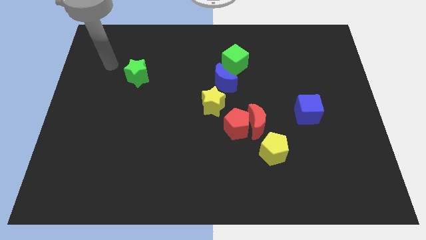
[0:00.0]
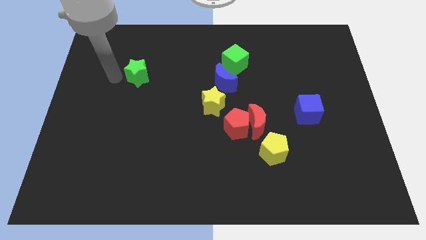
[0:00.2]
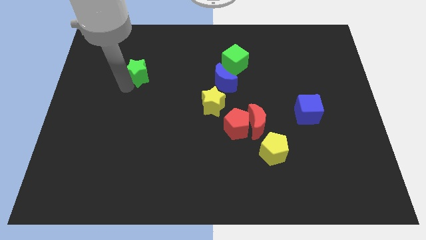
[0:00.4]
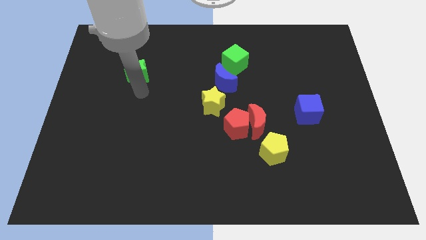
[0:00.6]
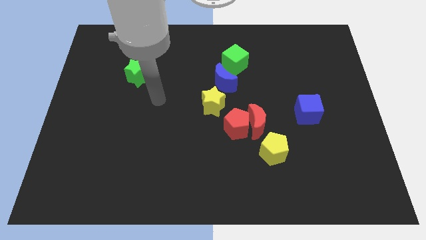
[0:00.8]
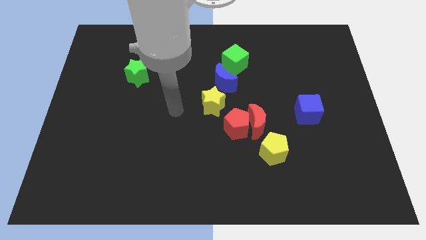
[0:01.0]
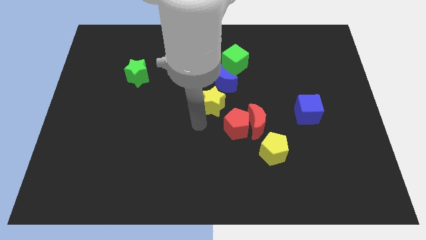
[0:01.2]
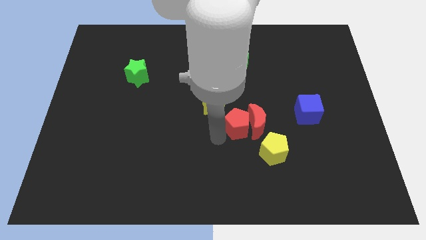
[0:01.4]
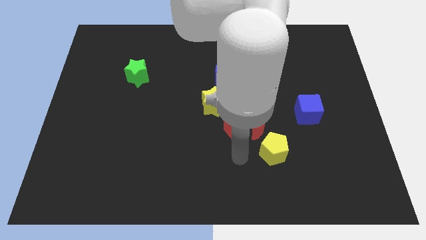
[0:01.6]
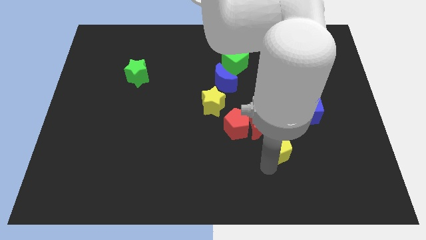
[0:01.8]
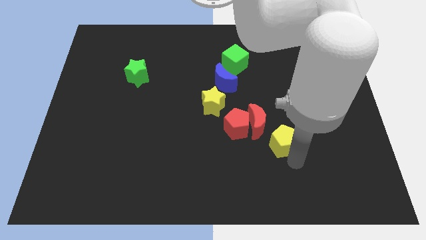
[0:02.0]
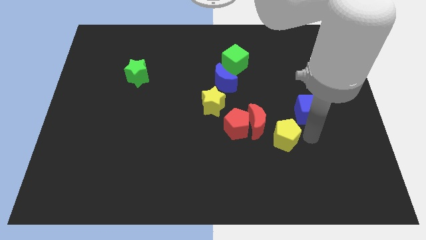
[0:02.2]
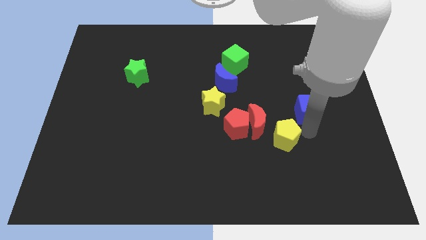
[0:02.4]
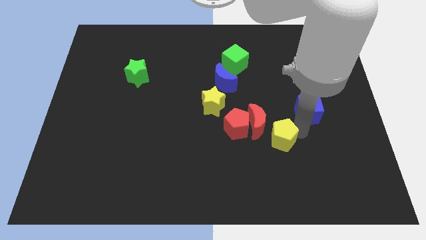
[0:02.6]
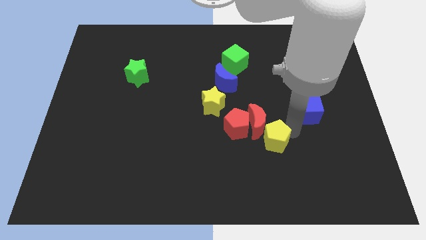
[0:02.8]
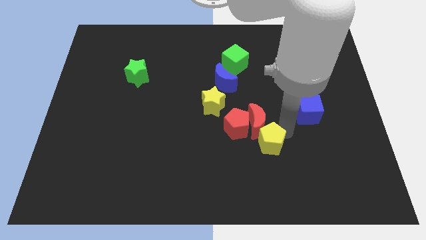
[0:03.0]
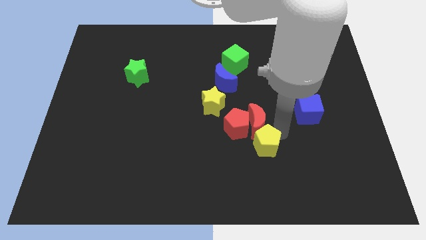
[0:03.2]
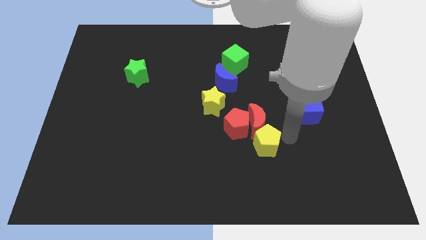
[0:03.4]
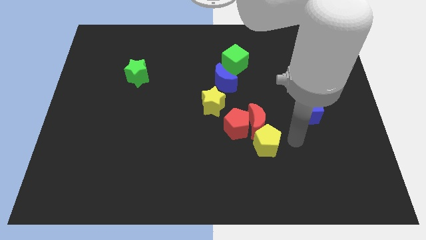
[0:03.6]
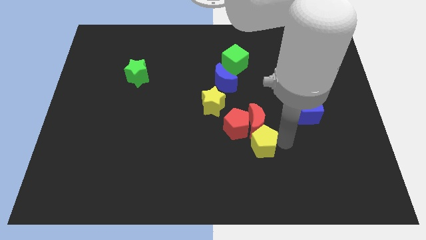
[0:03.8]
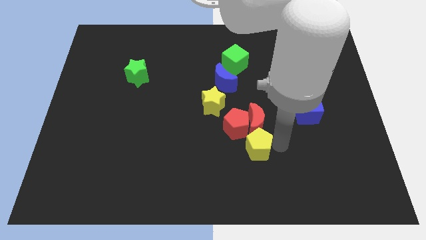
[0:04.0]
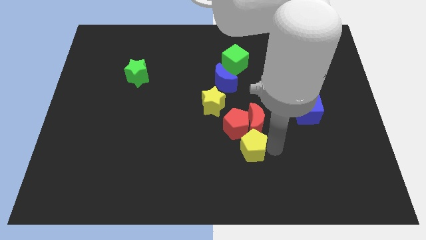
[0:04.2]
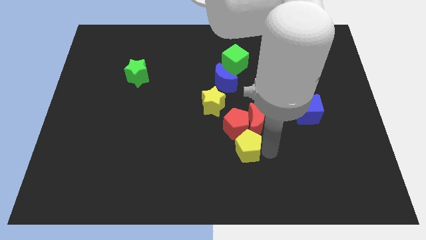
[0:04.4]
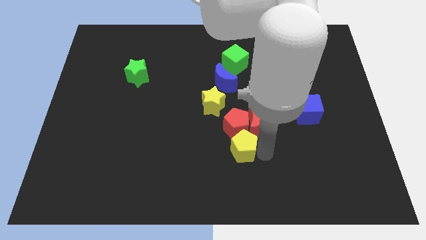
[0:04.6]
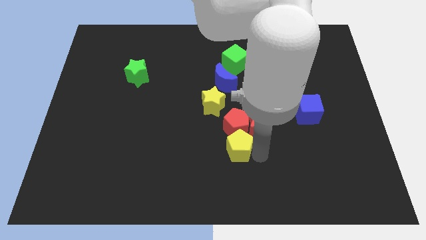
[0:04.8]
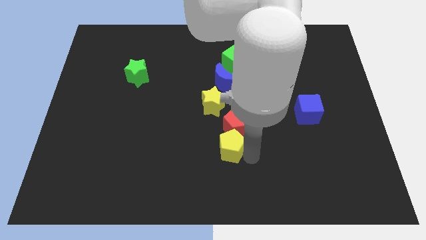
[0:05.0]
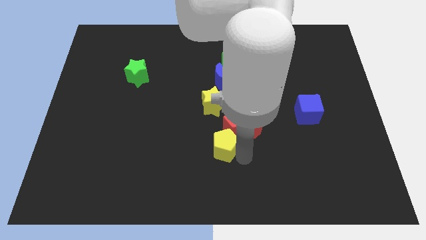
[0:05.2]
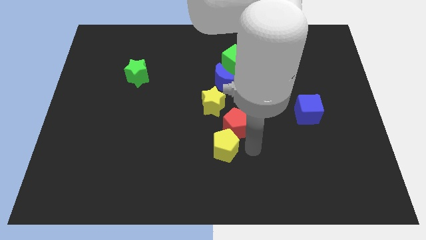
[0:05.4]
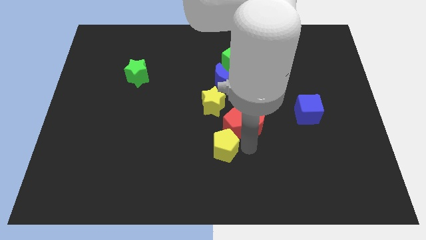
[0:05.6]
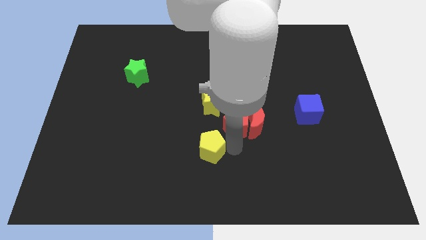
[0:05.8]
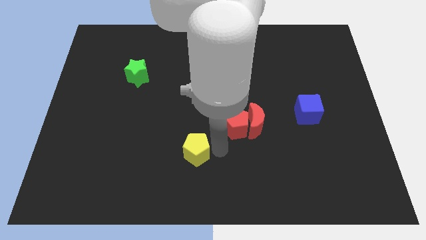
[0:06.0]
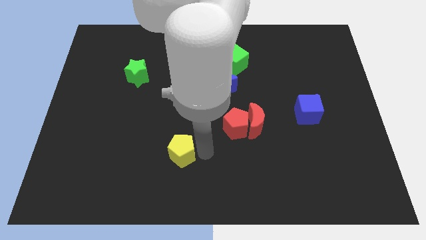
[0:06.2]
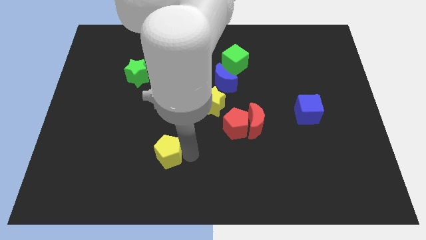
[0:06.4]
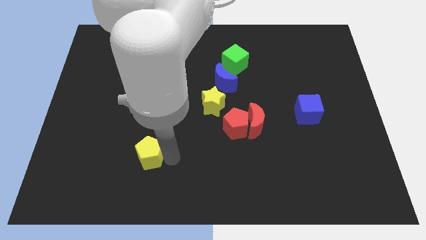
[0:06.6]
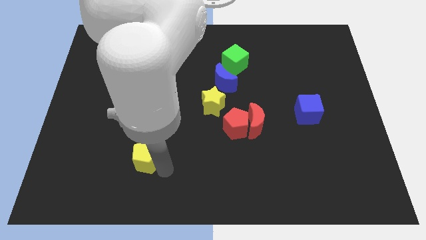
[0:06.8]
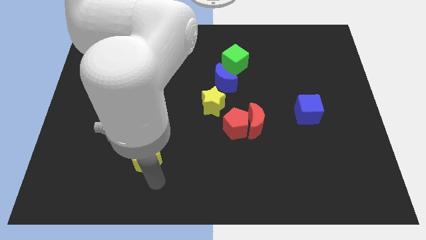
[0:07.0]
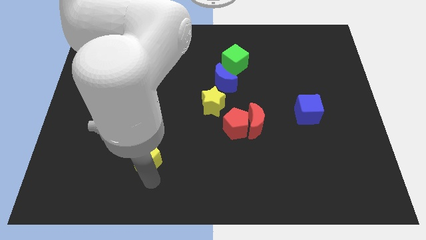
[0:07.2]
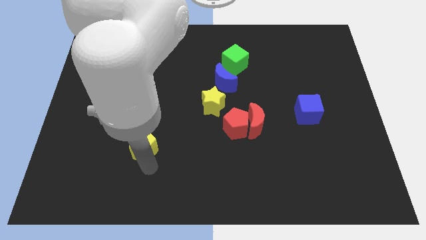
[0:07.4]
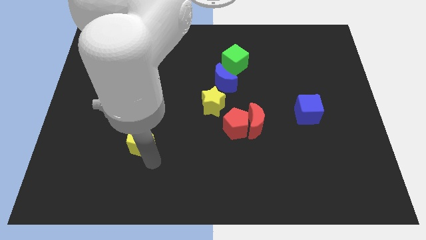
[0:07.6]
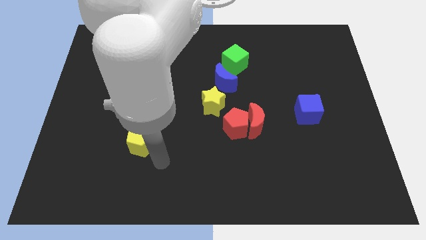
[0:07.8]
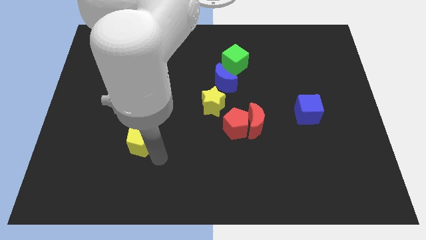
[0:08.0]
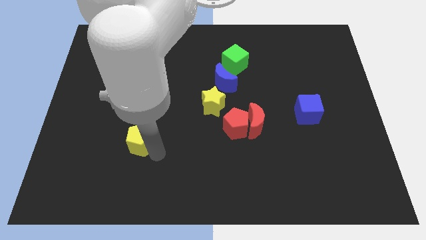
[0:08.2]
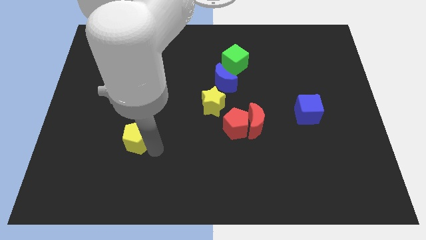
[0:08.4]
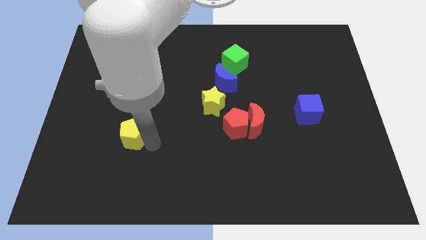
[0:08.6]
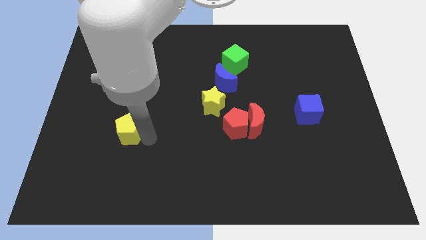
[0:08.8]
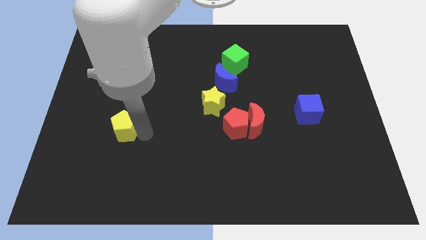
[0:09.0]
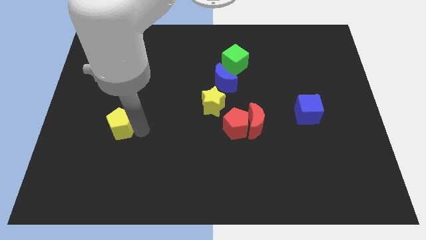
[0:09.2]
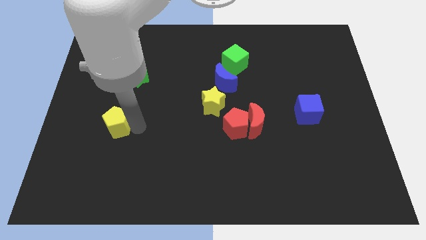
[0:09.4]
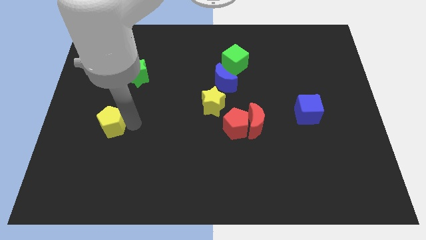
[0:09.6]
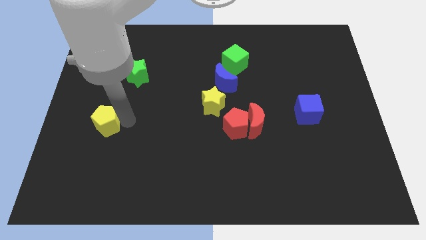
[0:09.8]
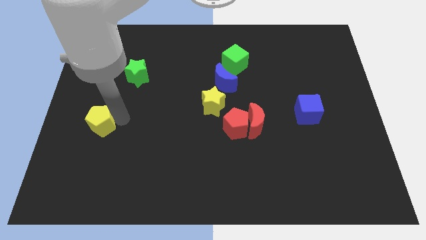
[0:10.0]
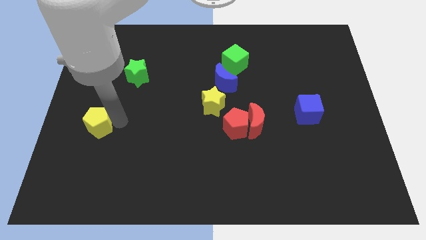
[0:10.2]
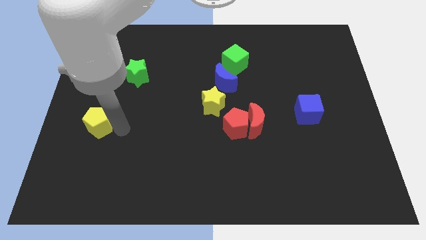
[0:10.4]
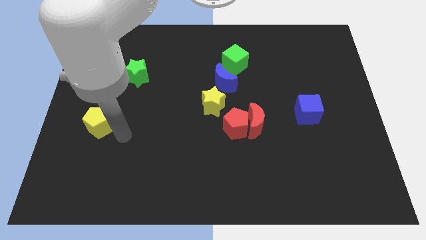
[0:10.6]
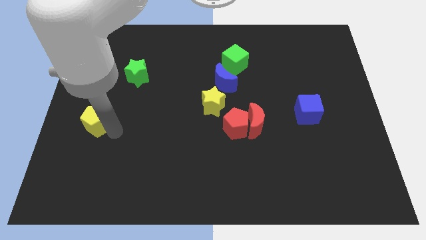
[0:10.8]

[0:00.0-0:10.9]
move the yellow pentagon to the left side

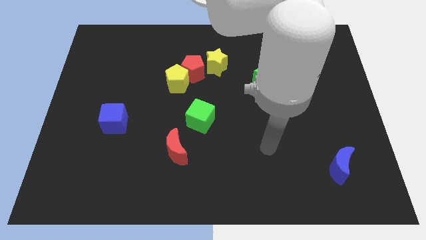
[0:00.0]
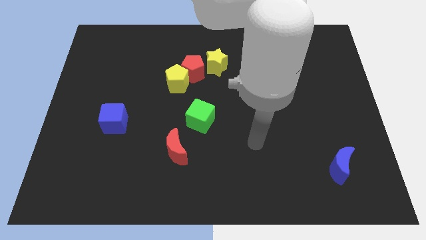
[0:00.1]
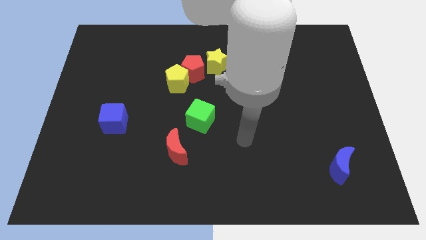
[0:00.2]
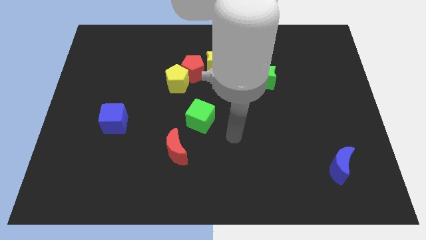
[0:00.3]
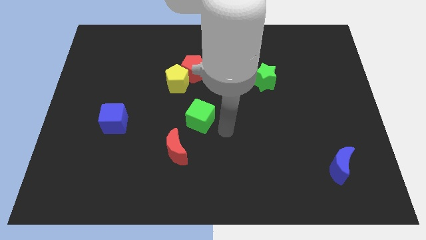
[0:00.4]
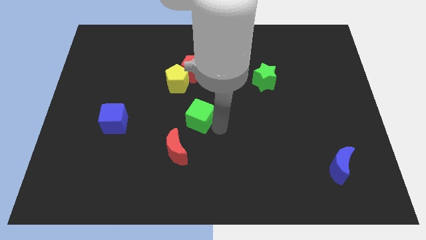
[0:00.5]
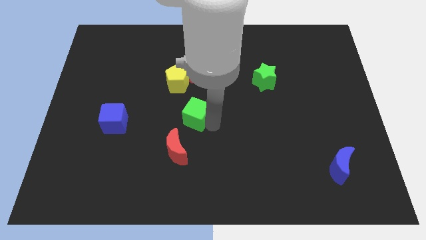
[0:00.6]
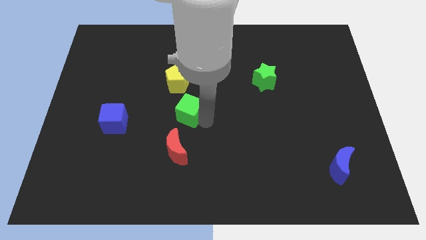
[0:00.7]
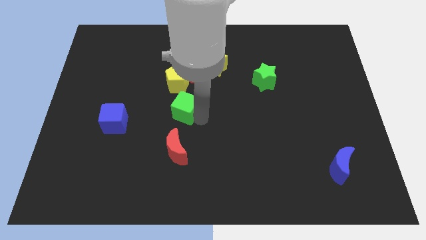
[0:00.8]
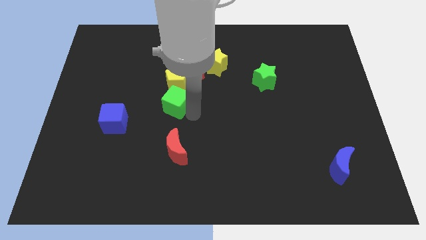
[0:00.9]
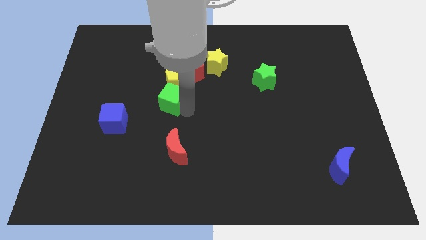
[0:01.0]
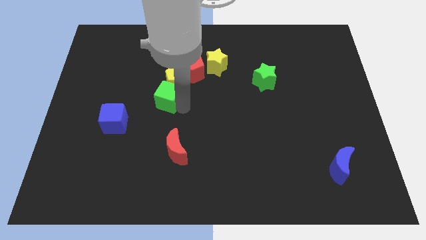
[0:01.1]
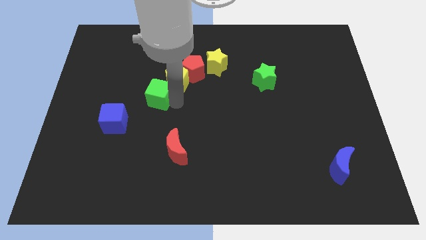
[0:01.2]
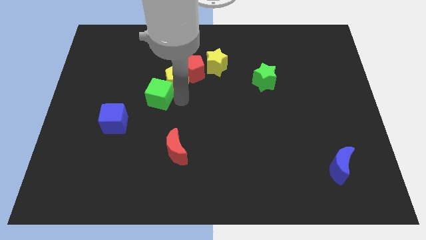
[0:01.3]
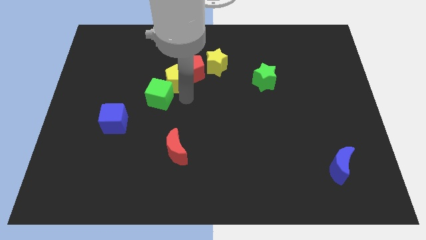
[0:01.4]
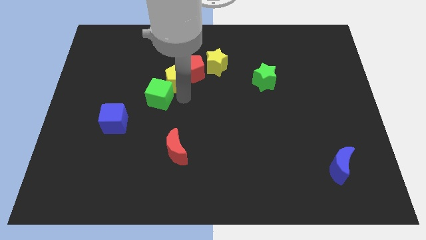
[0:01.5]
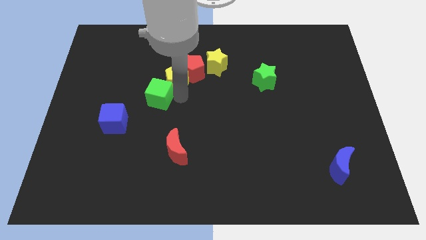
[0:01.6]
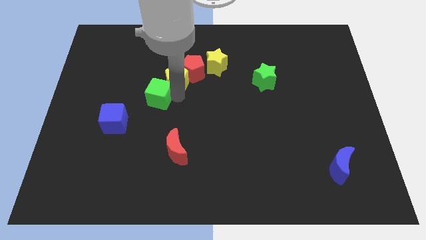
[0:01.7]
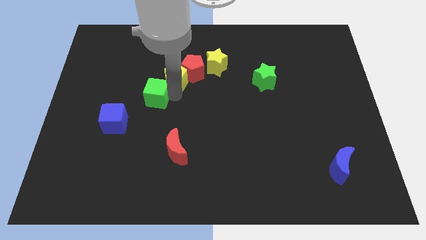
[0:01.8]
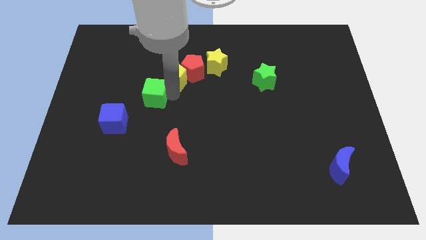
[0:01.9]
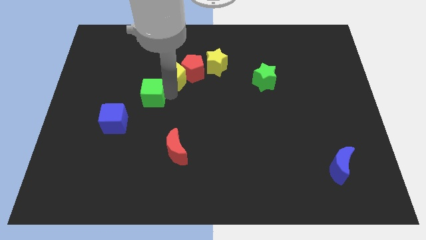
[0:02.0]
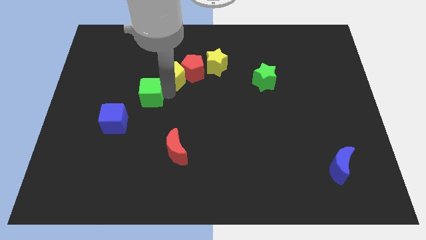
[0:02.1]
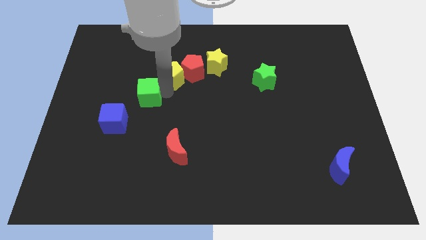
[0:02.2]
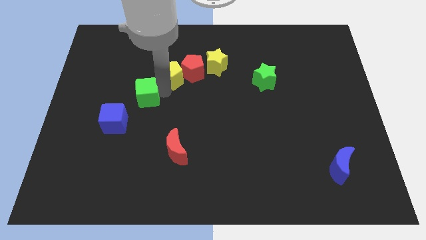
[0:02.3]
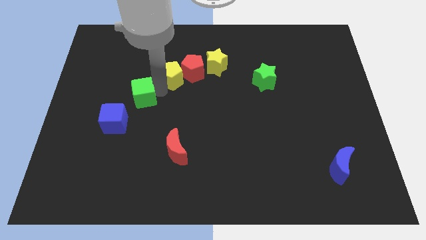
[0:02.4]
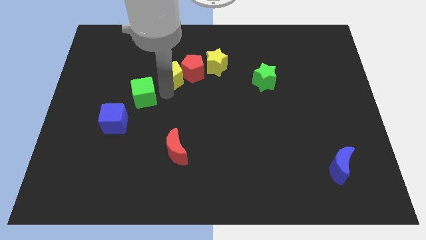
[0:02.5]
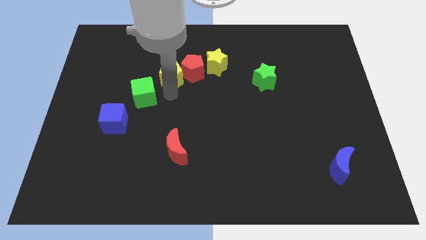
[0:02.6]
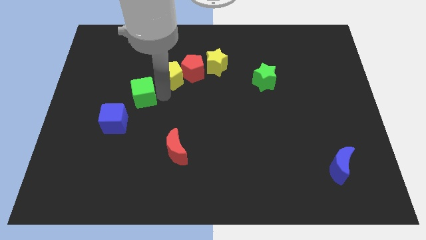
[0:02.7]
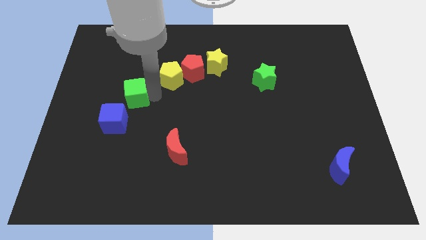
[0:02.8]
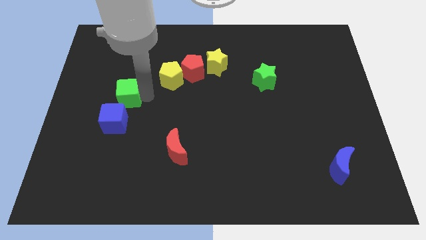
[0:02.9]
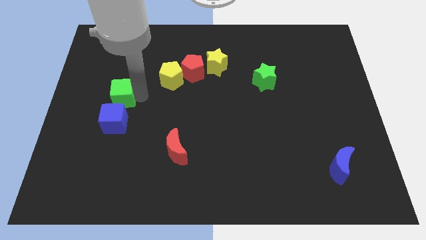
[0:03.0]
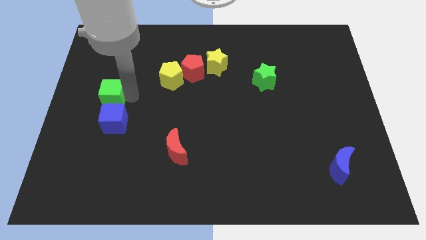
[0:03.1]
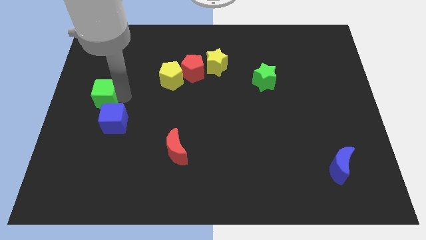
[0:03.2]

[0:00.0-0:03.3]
push the green cube to the center left
